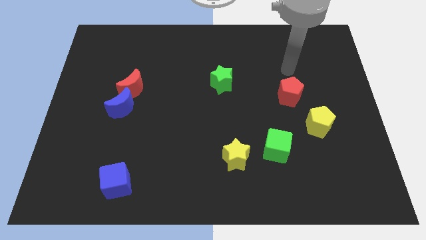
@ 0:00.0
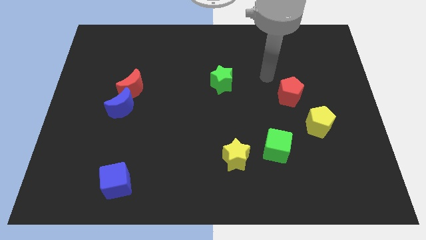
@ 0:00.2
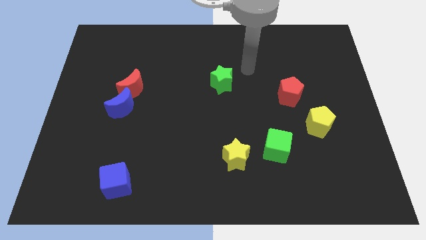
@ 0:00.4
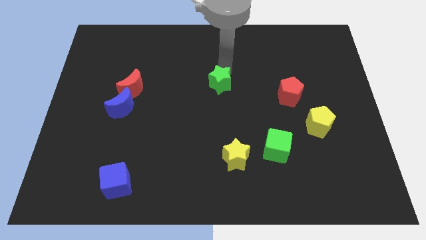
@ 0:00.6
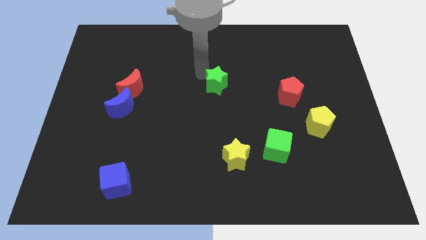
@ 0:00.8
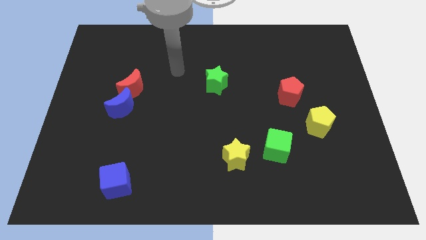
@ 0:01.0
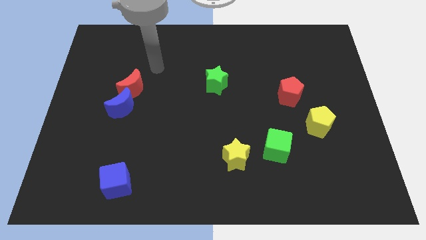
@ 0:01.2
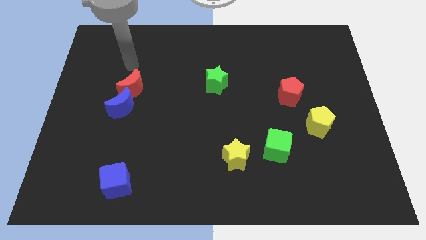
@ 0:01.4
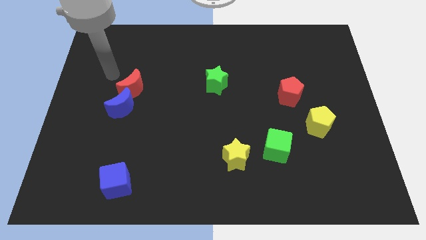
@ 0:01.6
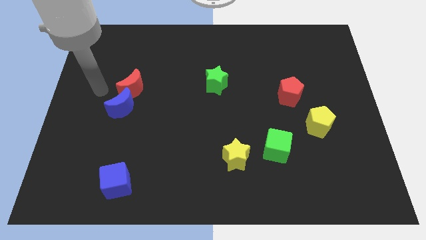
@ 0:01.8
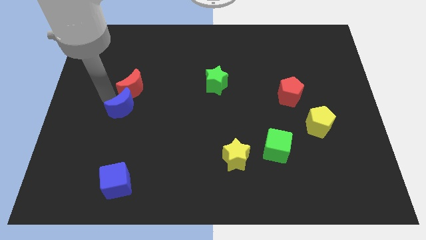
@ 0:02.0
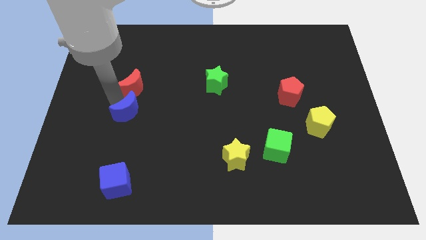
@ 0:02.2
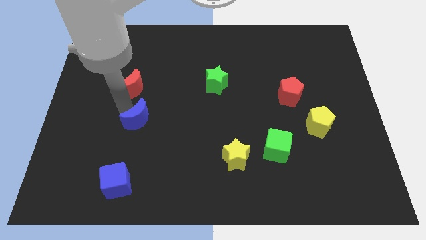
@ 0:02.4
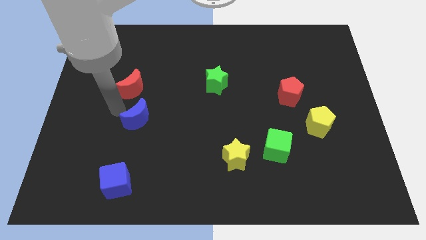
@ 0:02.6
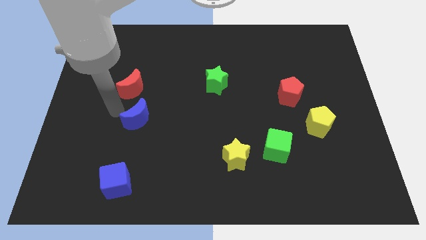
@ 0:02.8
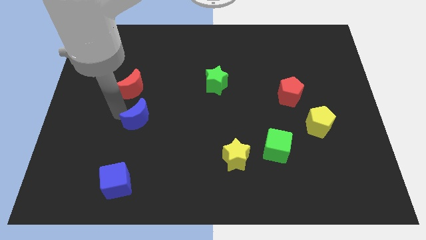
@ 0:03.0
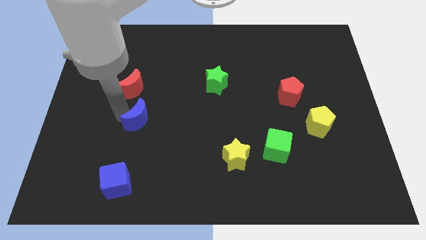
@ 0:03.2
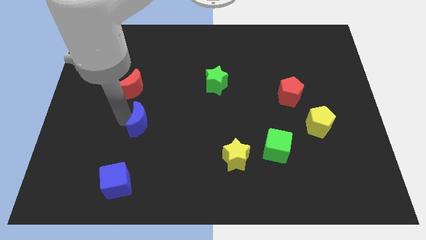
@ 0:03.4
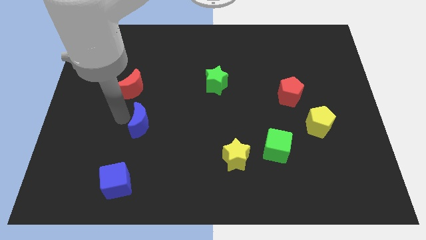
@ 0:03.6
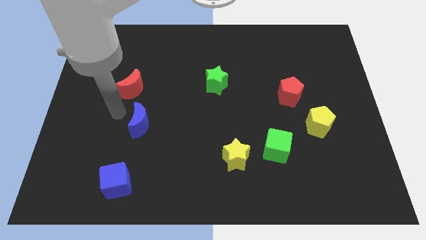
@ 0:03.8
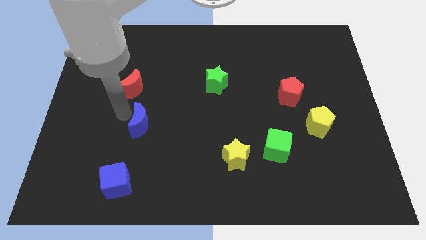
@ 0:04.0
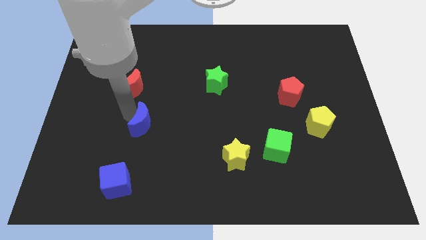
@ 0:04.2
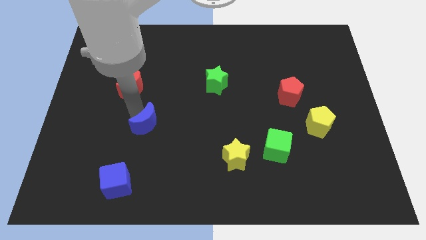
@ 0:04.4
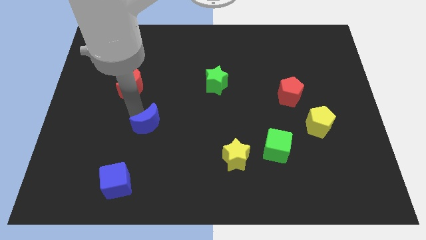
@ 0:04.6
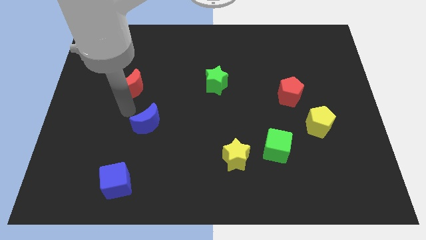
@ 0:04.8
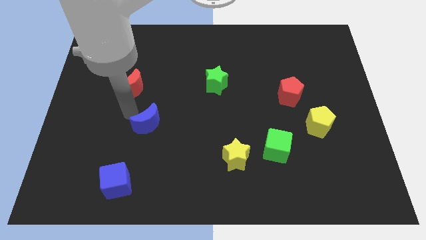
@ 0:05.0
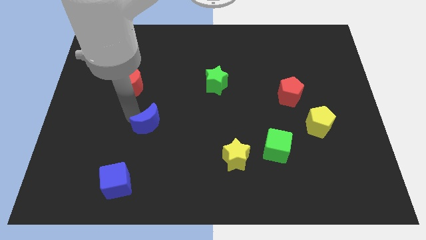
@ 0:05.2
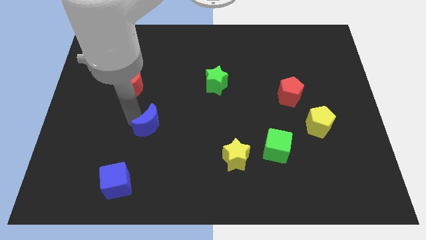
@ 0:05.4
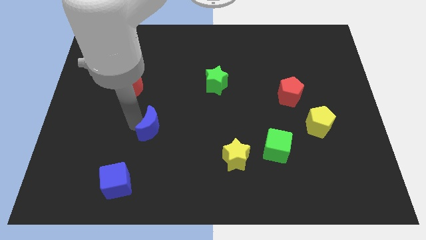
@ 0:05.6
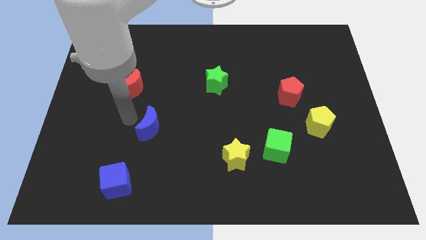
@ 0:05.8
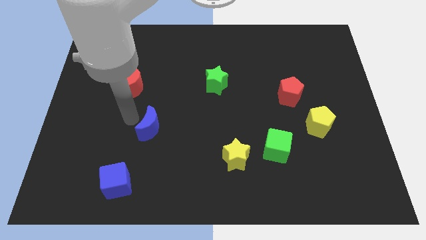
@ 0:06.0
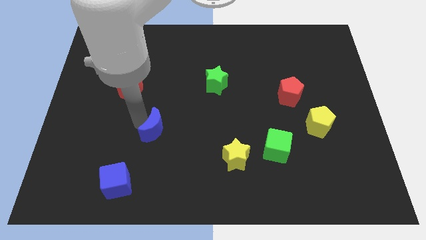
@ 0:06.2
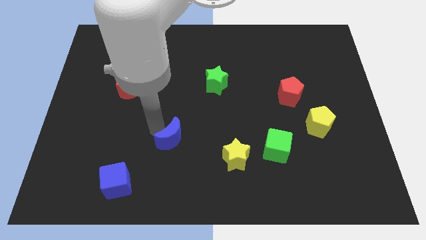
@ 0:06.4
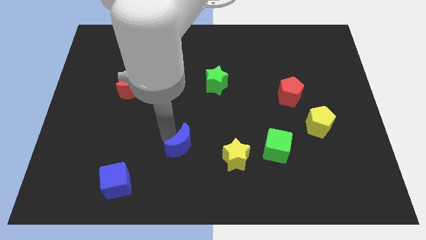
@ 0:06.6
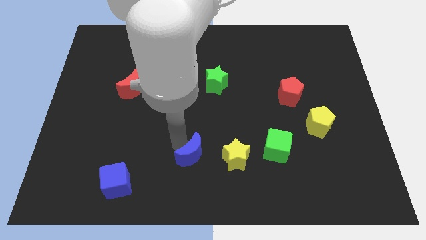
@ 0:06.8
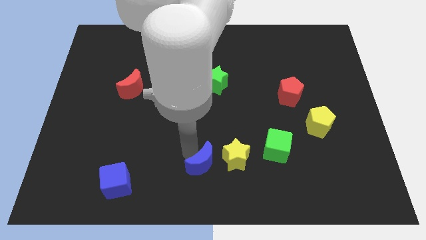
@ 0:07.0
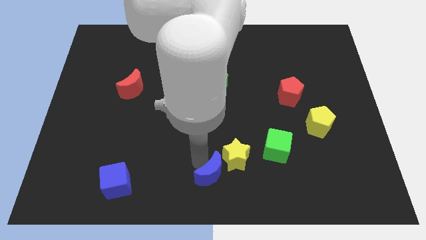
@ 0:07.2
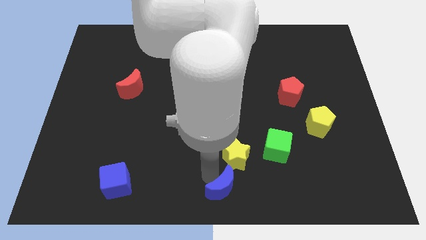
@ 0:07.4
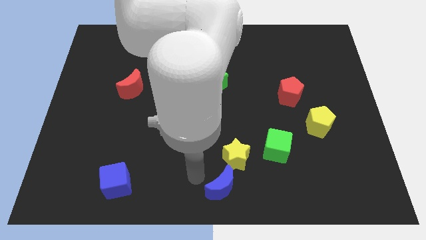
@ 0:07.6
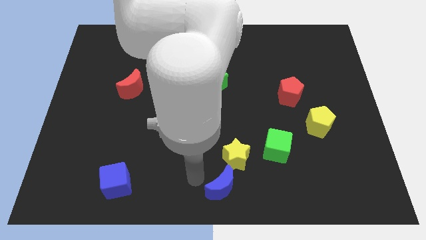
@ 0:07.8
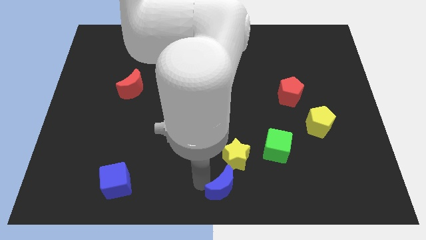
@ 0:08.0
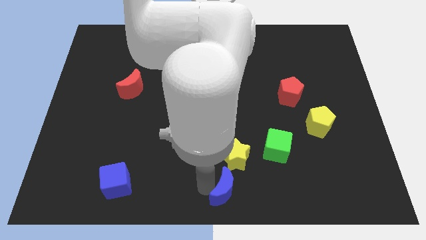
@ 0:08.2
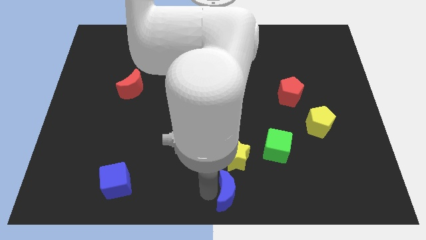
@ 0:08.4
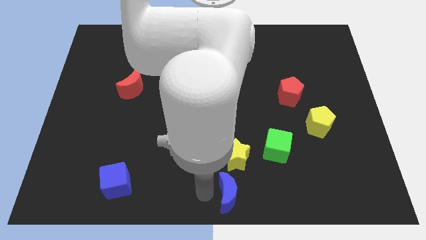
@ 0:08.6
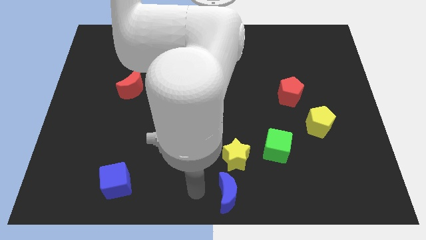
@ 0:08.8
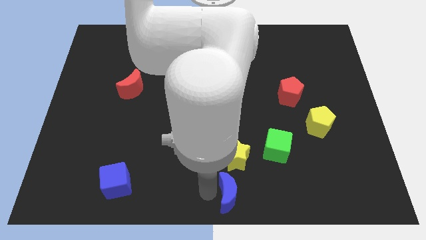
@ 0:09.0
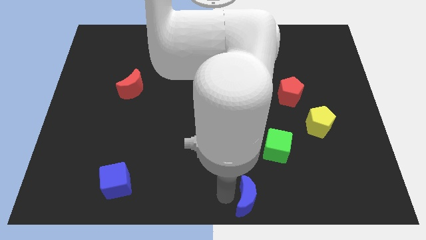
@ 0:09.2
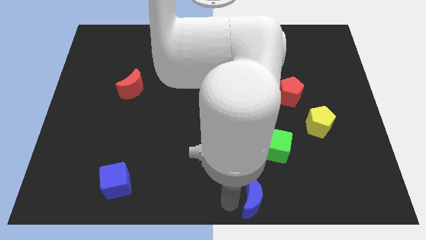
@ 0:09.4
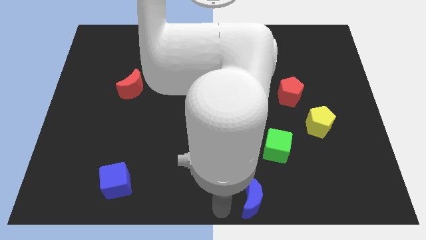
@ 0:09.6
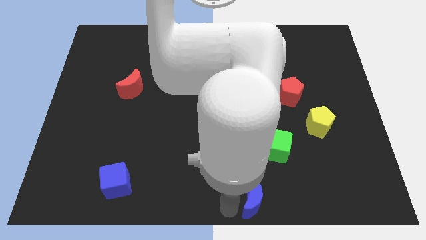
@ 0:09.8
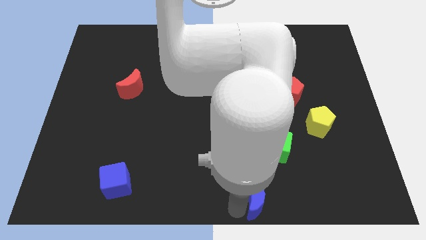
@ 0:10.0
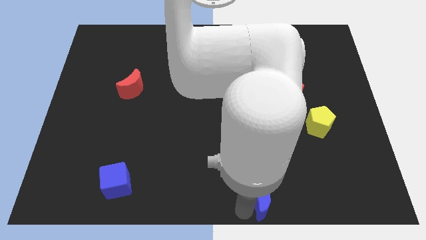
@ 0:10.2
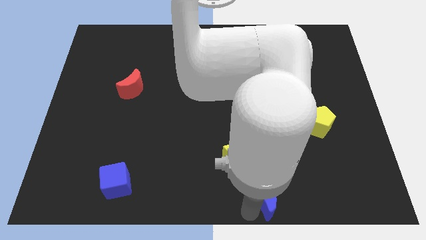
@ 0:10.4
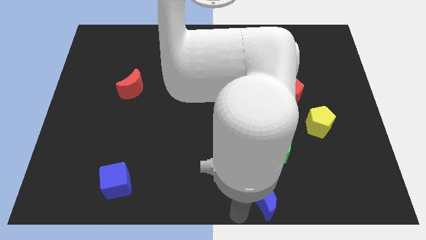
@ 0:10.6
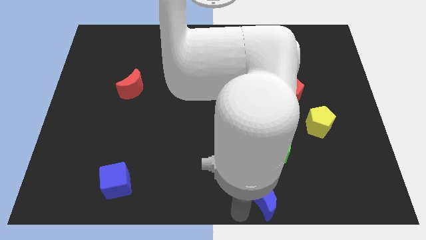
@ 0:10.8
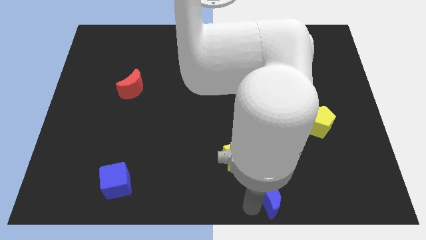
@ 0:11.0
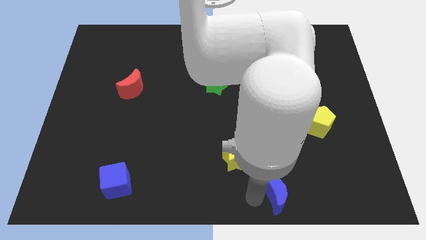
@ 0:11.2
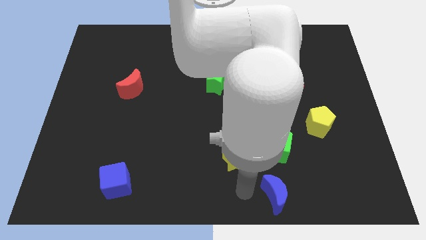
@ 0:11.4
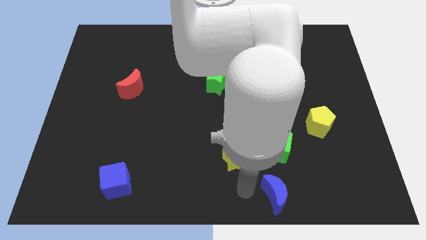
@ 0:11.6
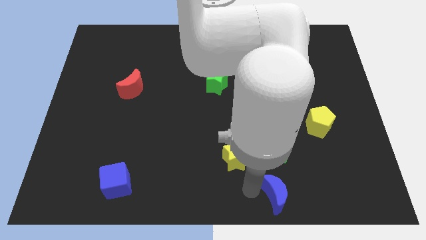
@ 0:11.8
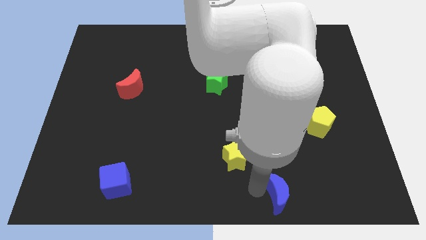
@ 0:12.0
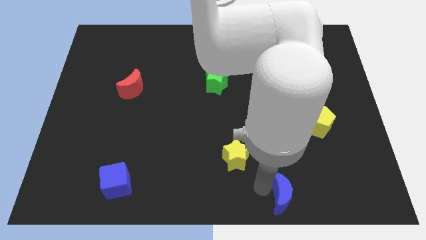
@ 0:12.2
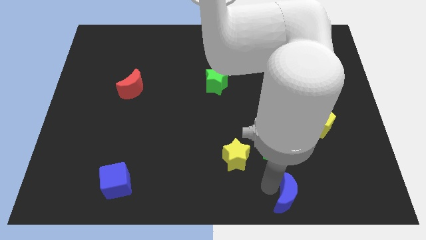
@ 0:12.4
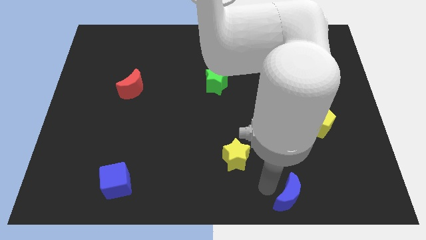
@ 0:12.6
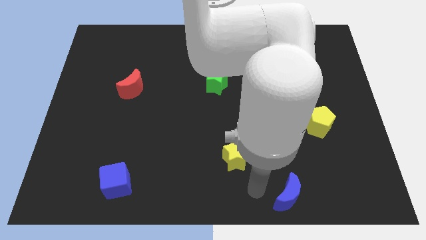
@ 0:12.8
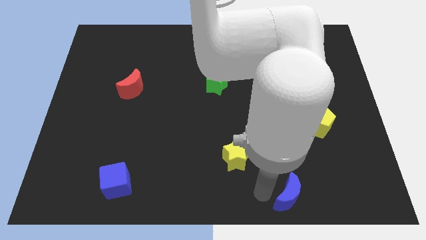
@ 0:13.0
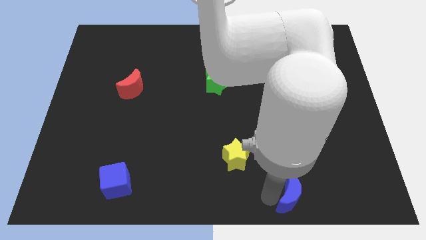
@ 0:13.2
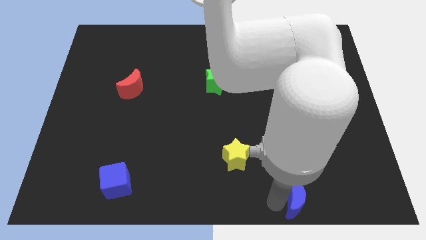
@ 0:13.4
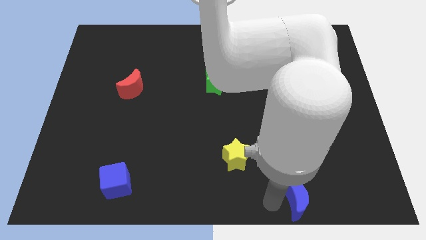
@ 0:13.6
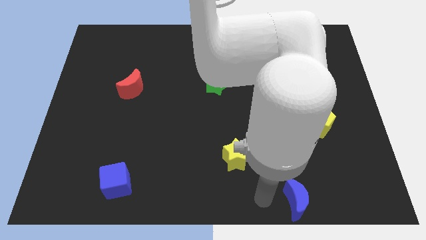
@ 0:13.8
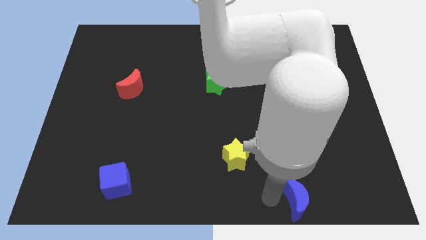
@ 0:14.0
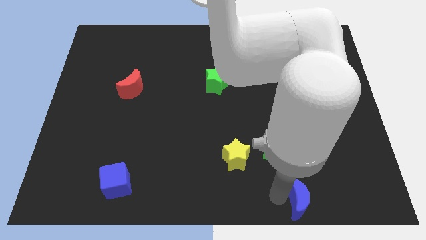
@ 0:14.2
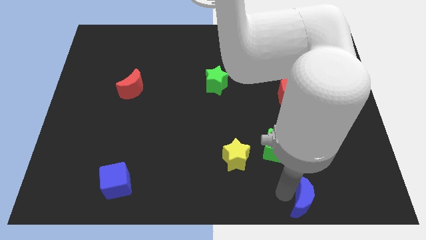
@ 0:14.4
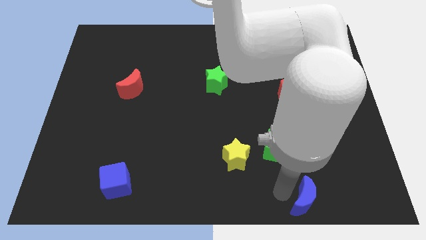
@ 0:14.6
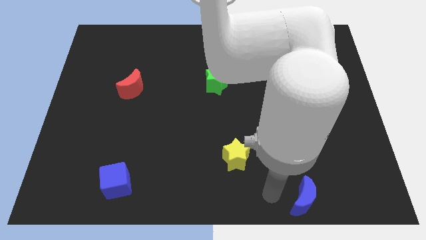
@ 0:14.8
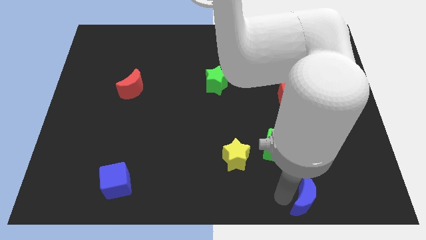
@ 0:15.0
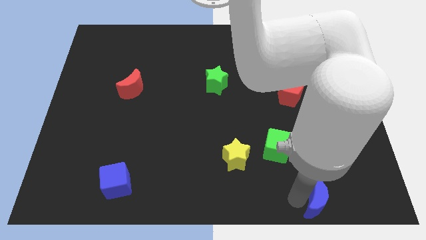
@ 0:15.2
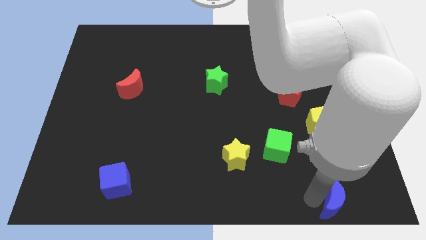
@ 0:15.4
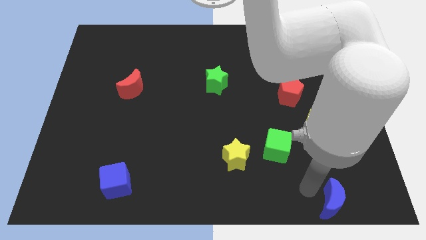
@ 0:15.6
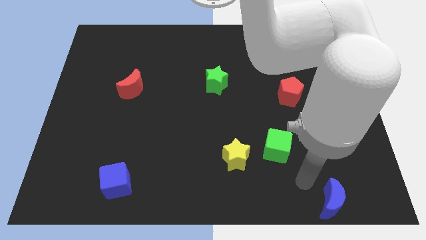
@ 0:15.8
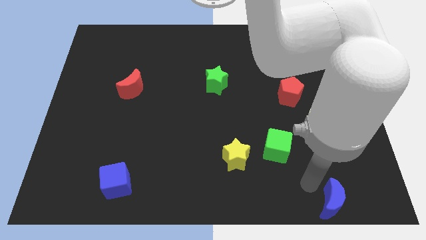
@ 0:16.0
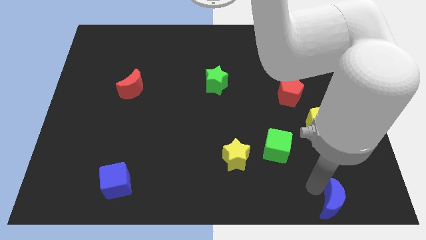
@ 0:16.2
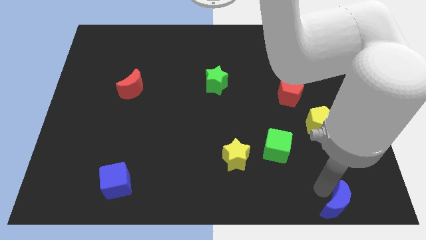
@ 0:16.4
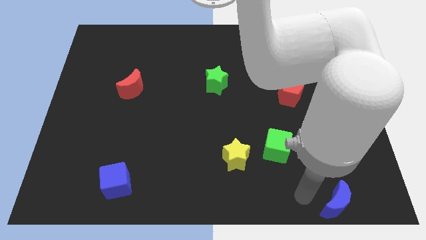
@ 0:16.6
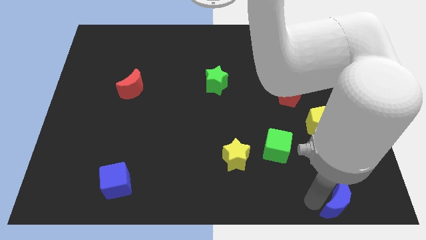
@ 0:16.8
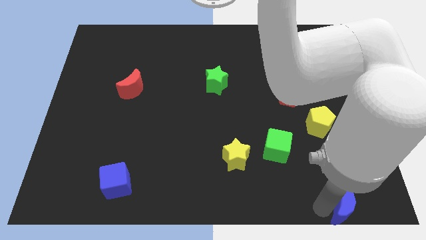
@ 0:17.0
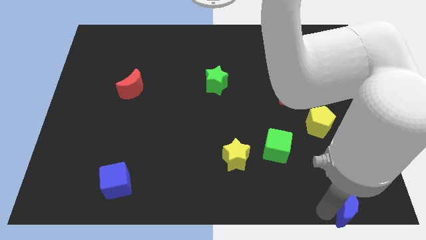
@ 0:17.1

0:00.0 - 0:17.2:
push the blue moon to the bottom right
